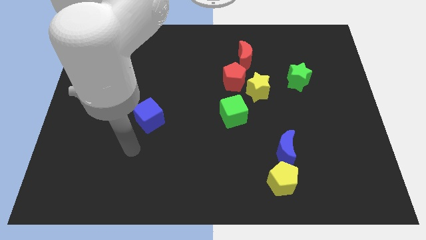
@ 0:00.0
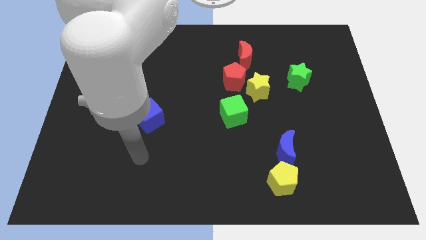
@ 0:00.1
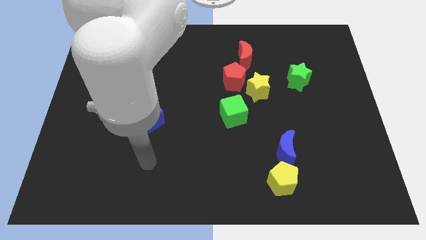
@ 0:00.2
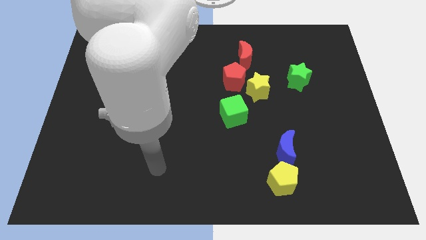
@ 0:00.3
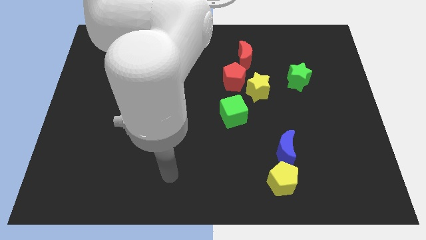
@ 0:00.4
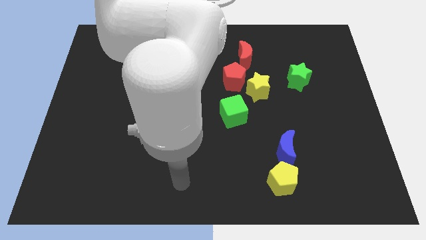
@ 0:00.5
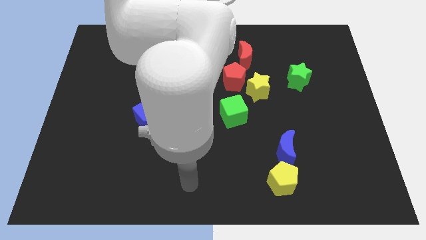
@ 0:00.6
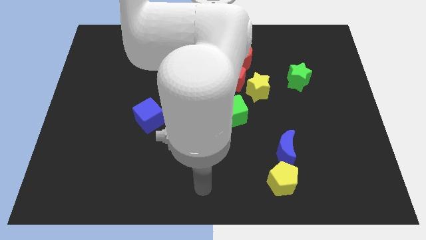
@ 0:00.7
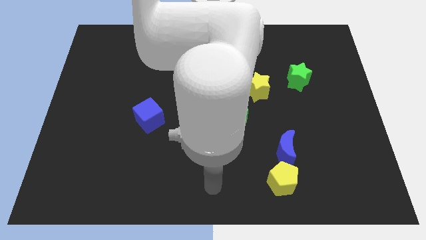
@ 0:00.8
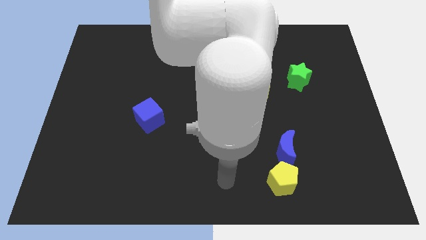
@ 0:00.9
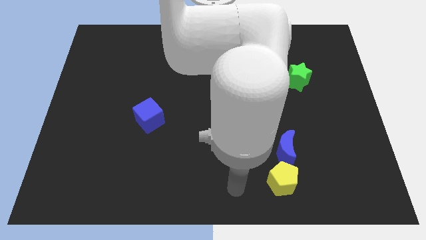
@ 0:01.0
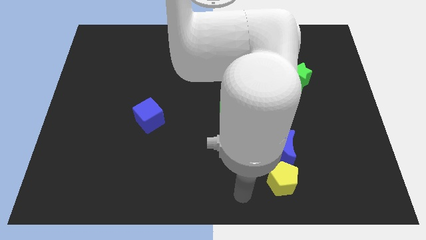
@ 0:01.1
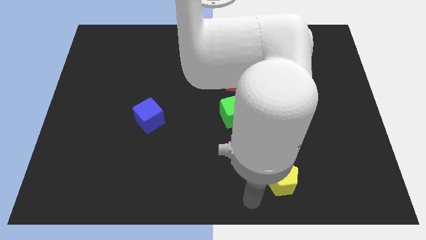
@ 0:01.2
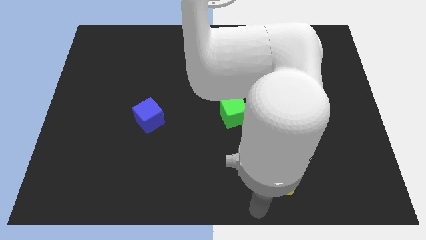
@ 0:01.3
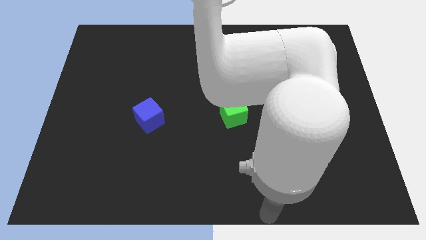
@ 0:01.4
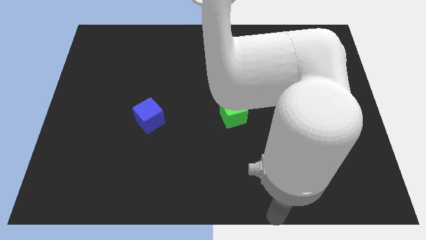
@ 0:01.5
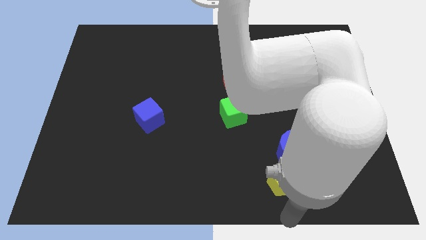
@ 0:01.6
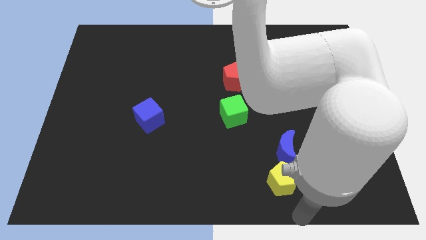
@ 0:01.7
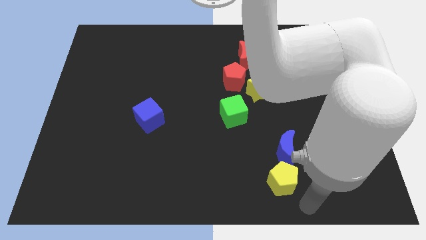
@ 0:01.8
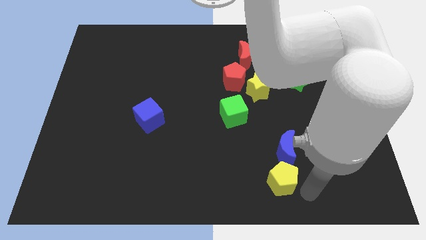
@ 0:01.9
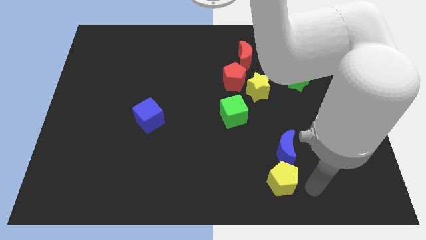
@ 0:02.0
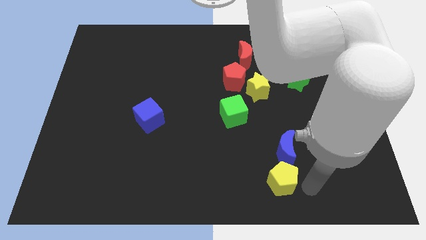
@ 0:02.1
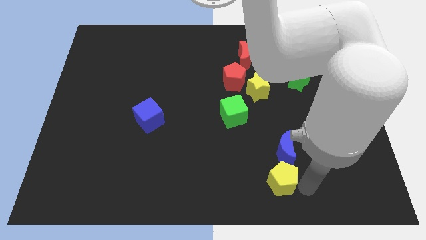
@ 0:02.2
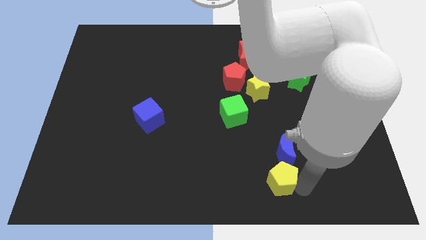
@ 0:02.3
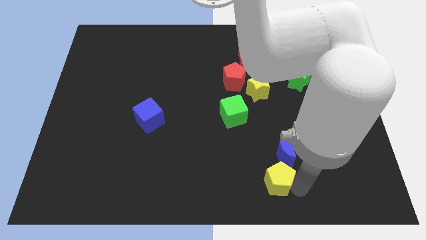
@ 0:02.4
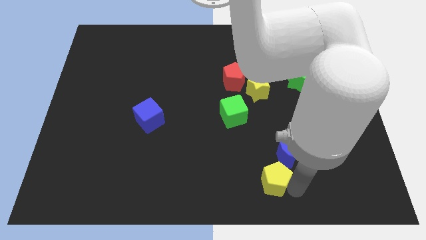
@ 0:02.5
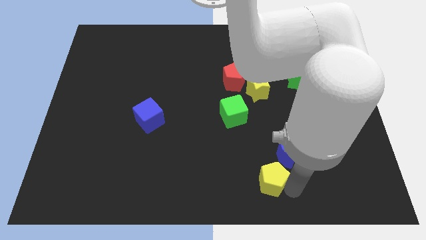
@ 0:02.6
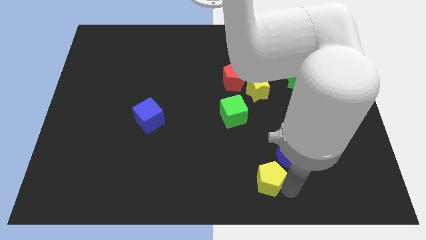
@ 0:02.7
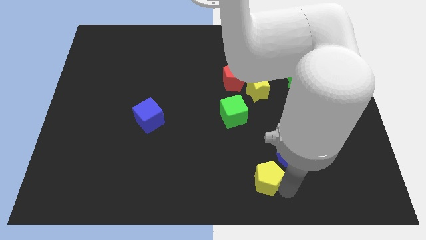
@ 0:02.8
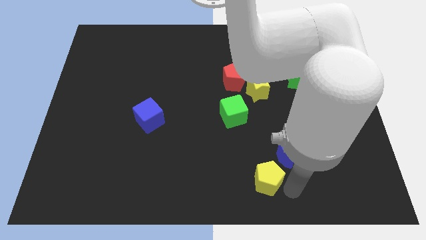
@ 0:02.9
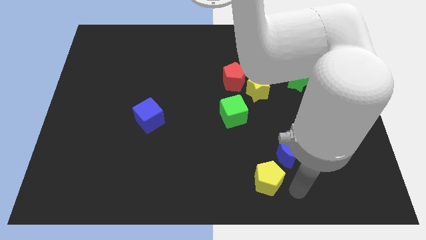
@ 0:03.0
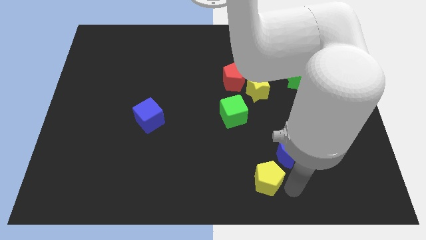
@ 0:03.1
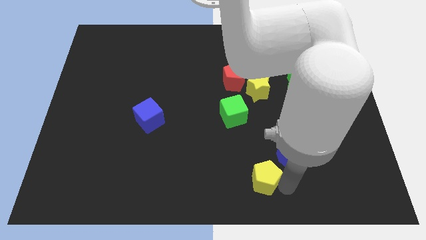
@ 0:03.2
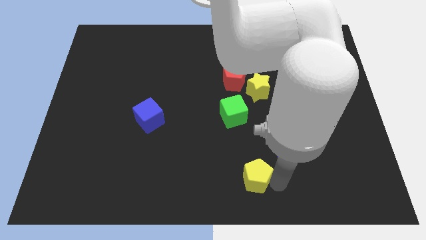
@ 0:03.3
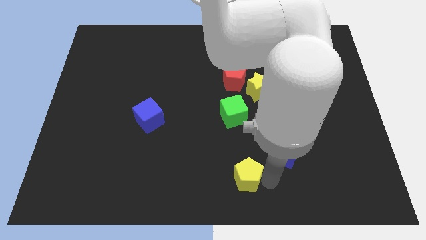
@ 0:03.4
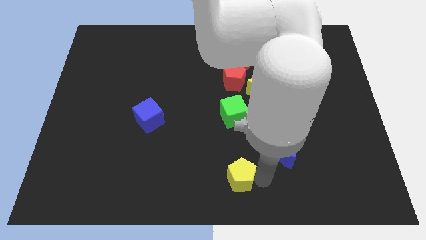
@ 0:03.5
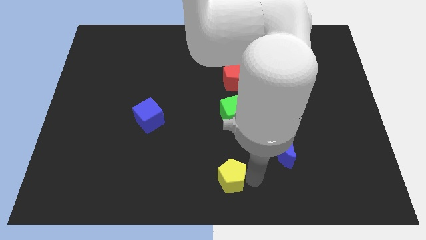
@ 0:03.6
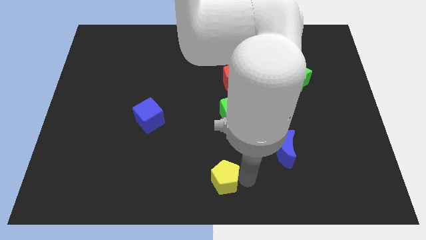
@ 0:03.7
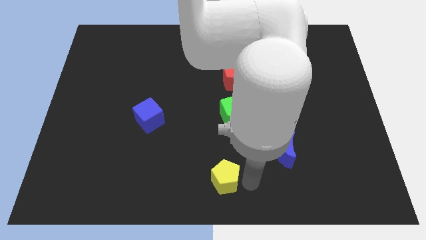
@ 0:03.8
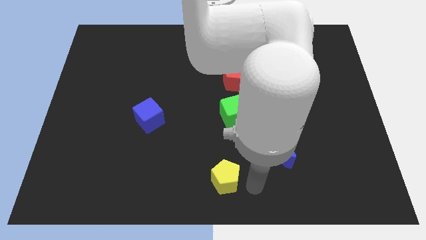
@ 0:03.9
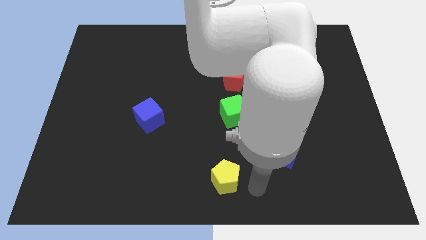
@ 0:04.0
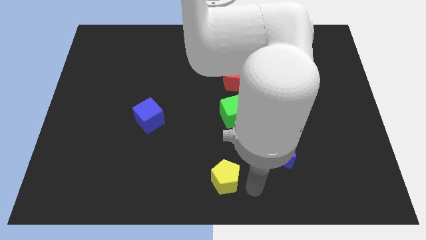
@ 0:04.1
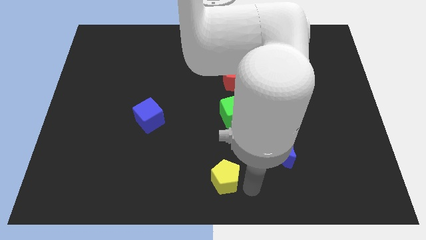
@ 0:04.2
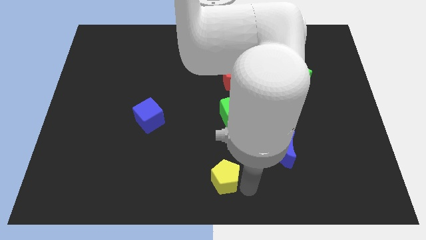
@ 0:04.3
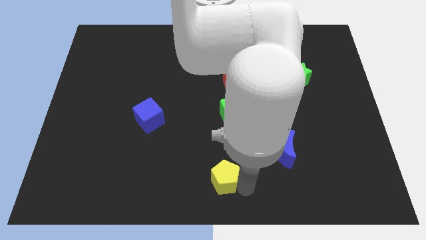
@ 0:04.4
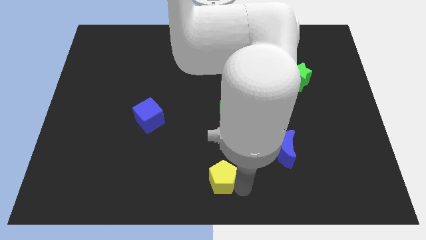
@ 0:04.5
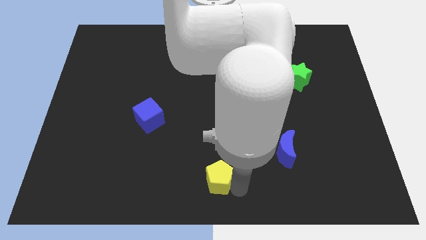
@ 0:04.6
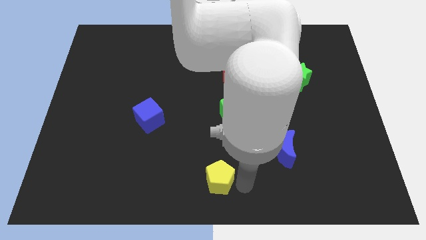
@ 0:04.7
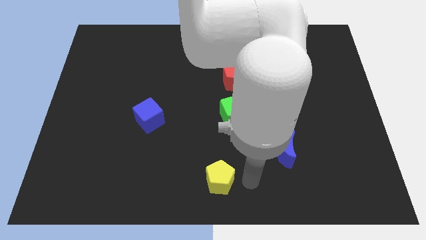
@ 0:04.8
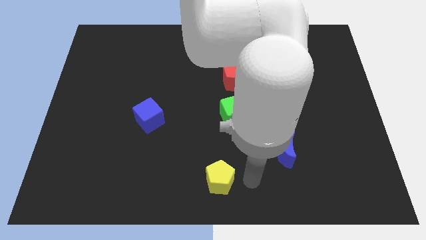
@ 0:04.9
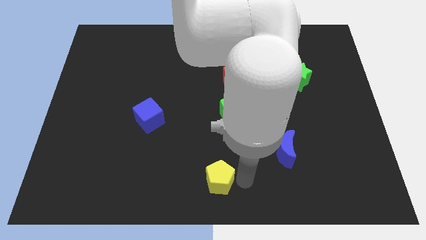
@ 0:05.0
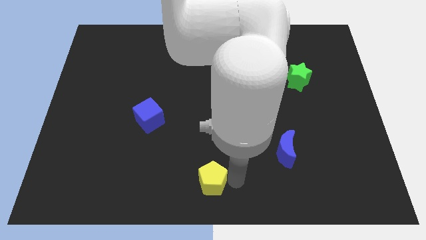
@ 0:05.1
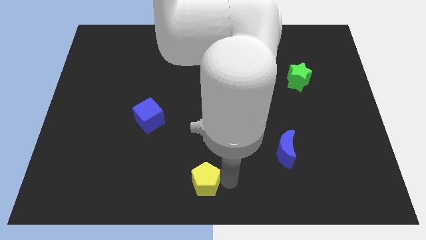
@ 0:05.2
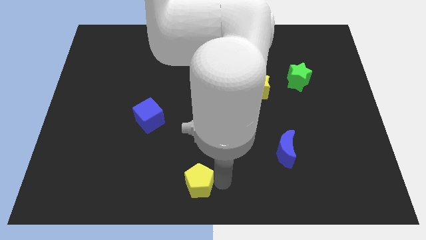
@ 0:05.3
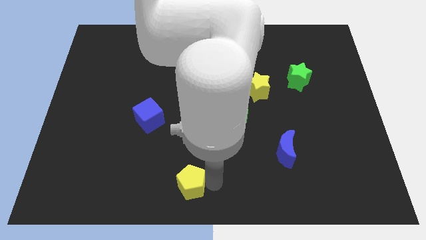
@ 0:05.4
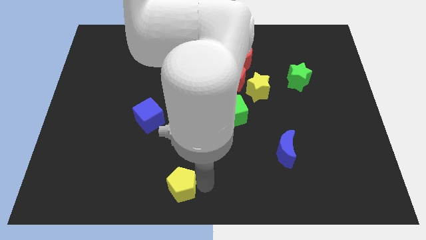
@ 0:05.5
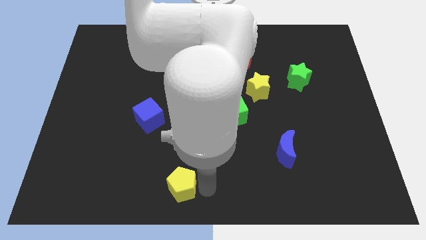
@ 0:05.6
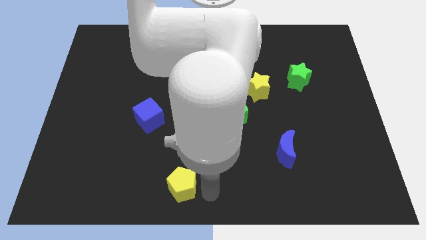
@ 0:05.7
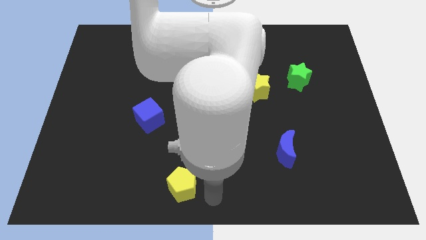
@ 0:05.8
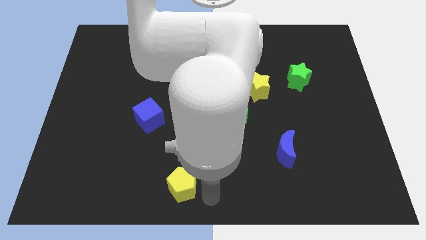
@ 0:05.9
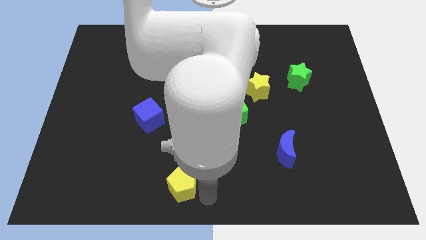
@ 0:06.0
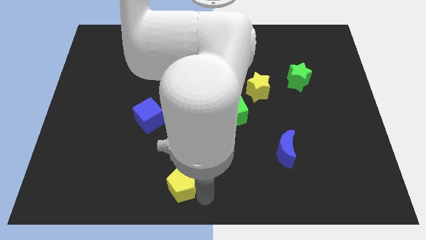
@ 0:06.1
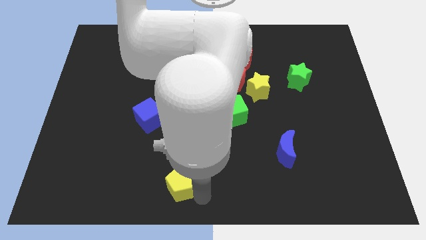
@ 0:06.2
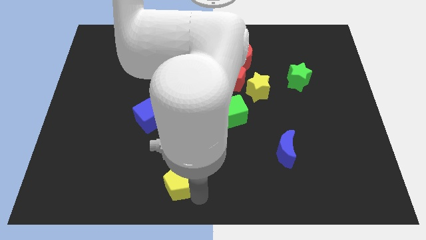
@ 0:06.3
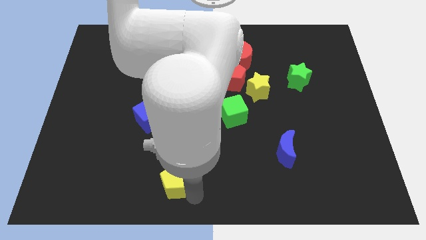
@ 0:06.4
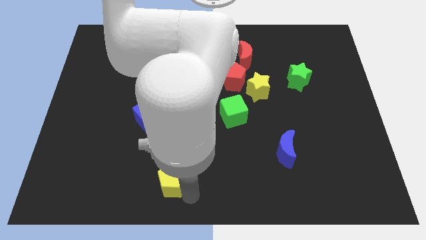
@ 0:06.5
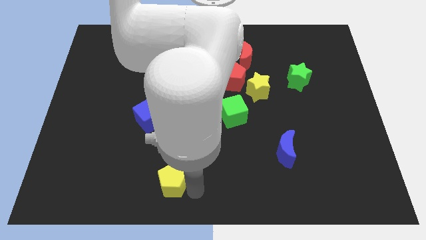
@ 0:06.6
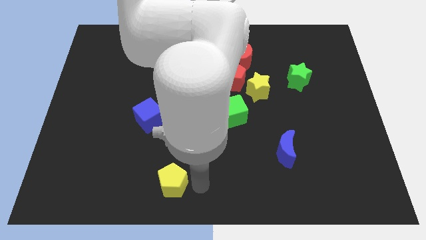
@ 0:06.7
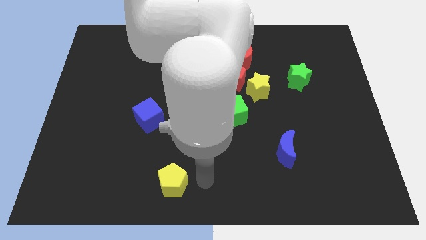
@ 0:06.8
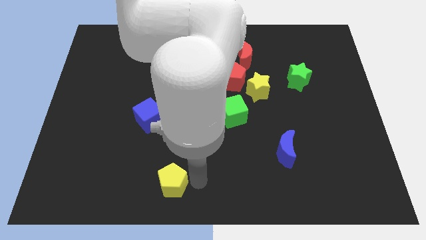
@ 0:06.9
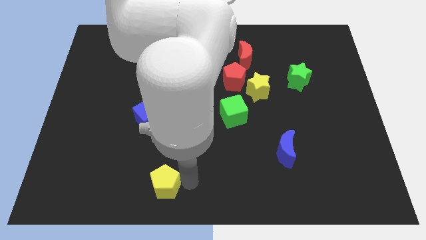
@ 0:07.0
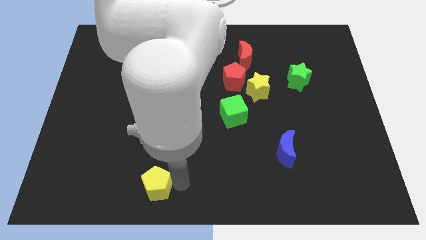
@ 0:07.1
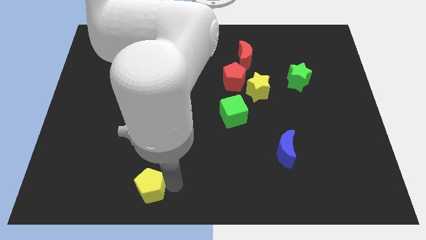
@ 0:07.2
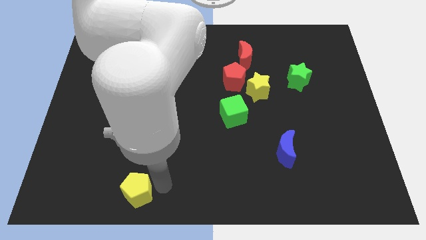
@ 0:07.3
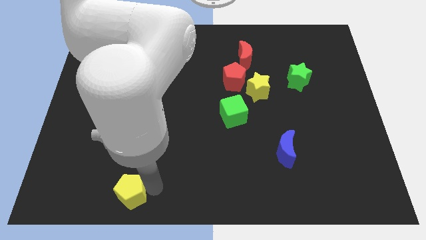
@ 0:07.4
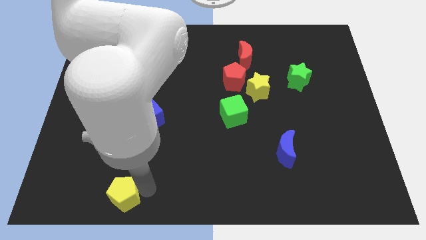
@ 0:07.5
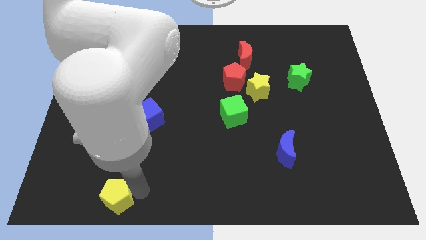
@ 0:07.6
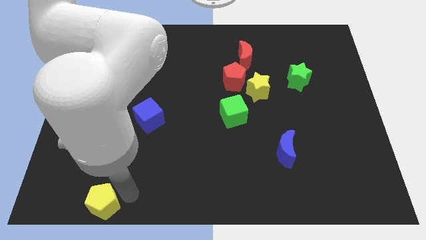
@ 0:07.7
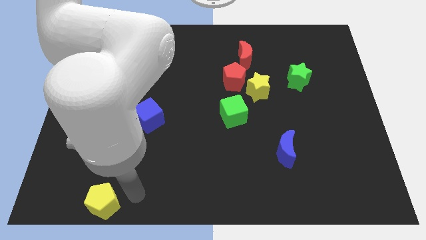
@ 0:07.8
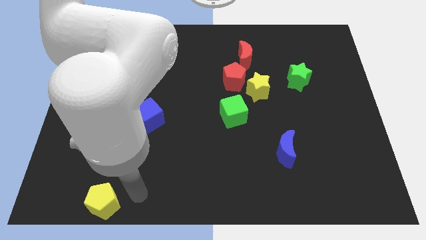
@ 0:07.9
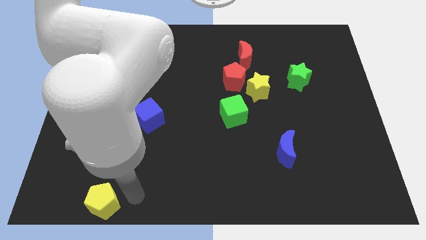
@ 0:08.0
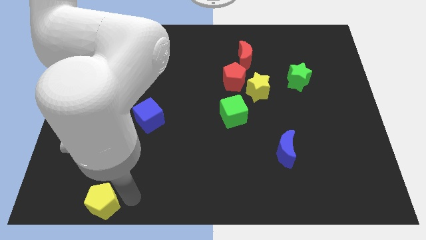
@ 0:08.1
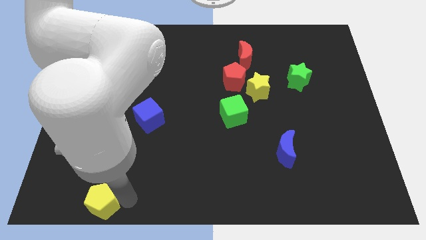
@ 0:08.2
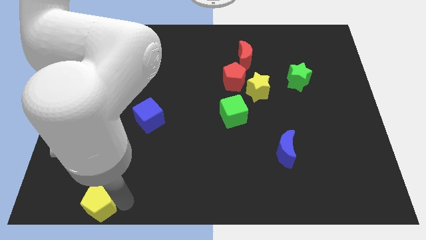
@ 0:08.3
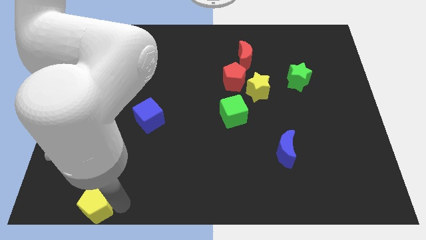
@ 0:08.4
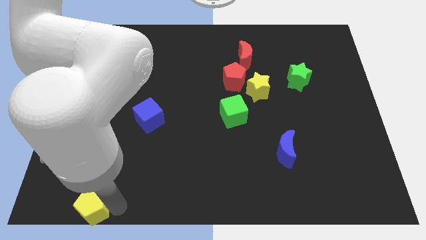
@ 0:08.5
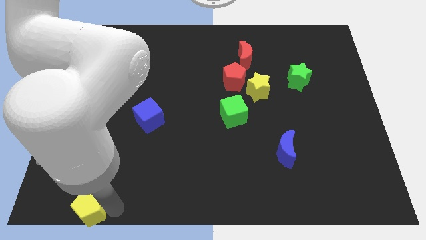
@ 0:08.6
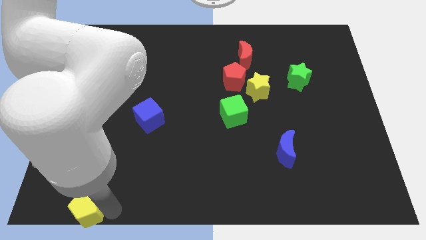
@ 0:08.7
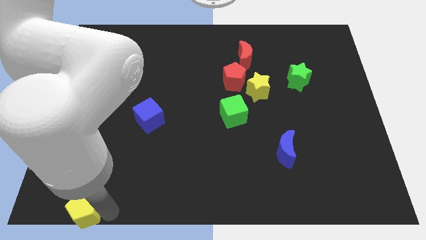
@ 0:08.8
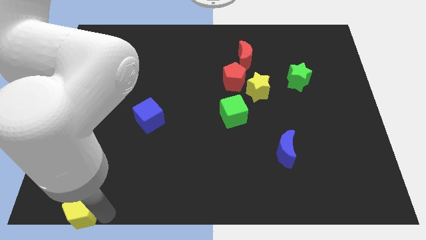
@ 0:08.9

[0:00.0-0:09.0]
slide the yellow pentagon to the bottom left
